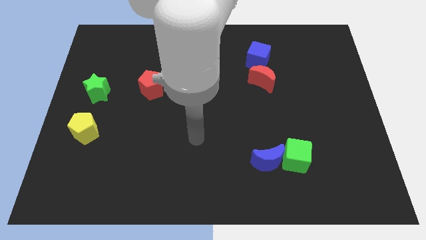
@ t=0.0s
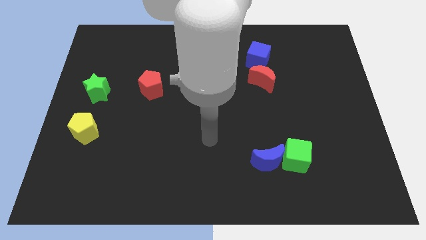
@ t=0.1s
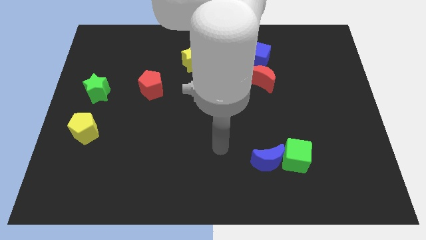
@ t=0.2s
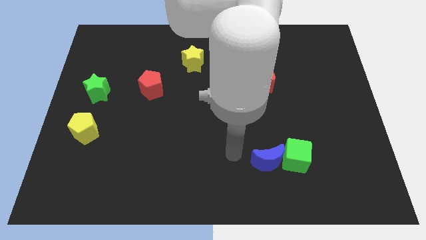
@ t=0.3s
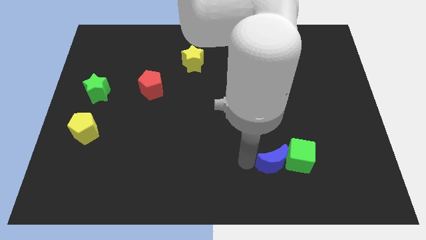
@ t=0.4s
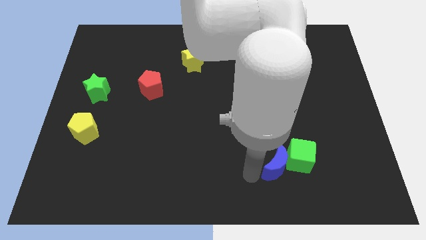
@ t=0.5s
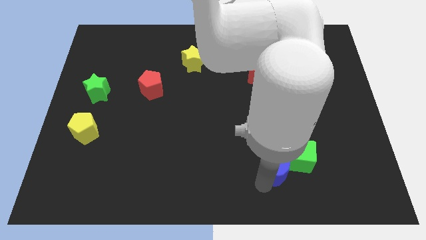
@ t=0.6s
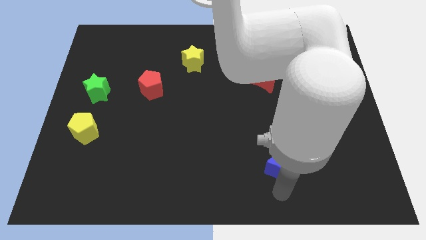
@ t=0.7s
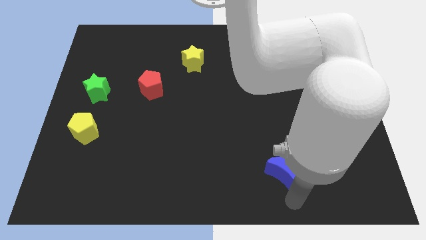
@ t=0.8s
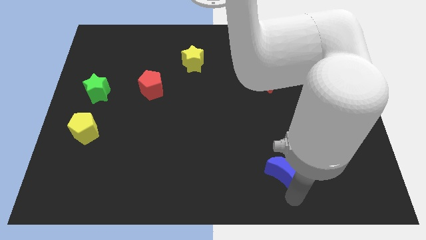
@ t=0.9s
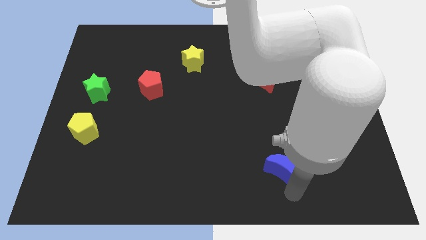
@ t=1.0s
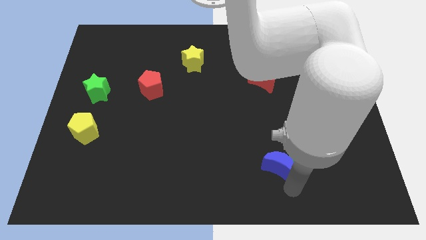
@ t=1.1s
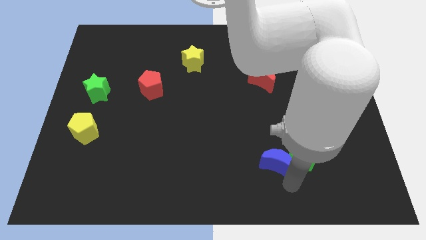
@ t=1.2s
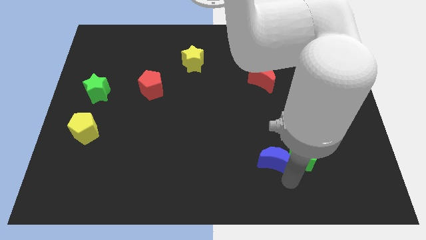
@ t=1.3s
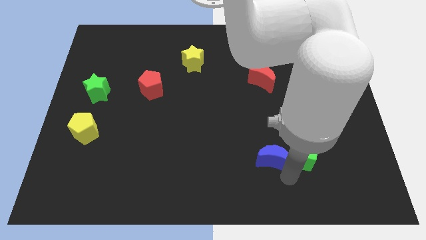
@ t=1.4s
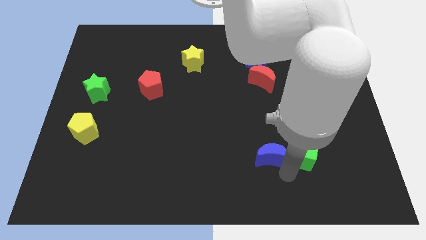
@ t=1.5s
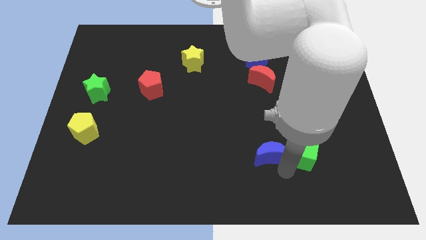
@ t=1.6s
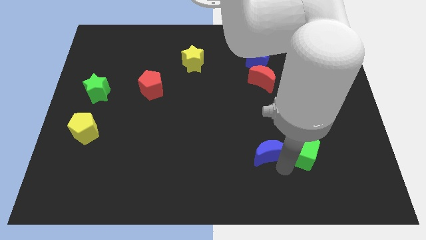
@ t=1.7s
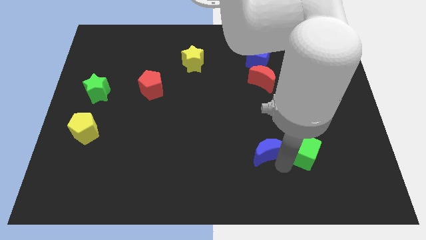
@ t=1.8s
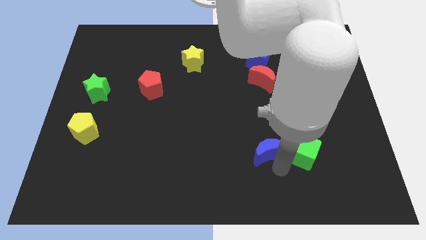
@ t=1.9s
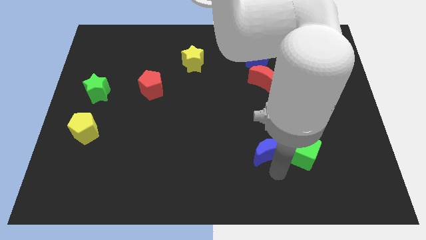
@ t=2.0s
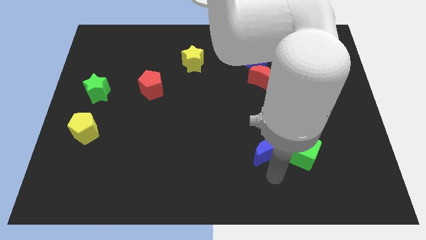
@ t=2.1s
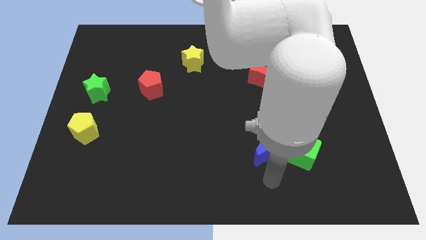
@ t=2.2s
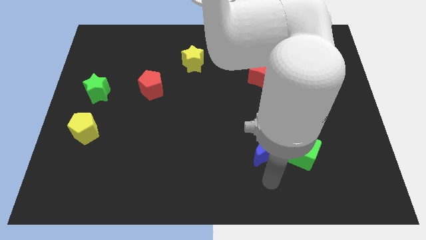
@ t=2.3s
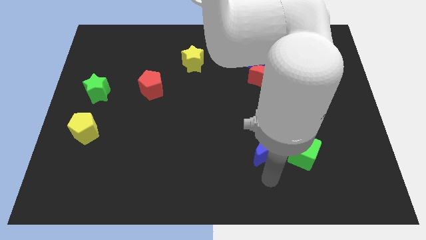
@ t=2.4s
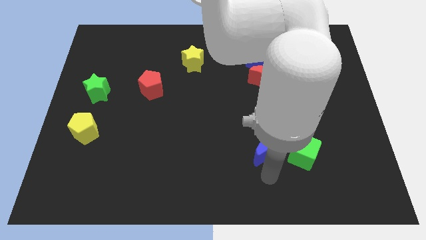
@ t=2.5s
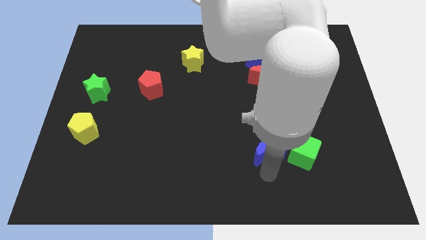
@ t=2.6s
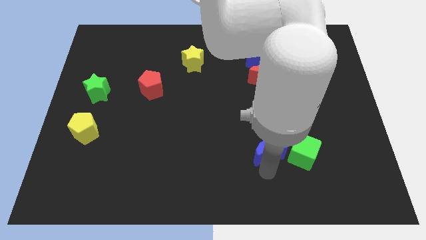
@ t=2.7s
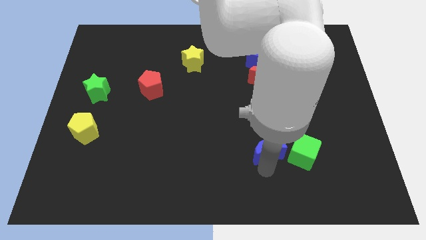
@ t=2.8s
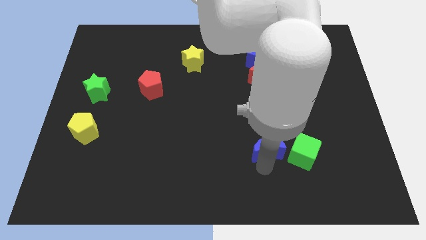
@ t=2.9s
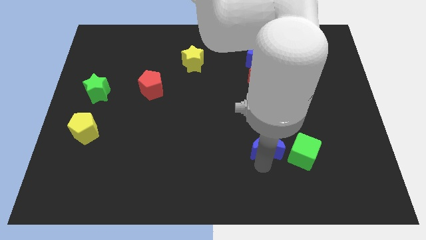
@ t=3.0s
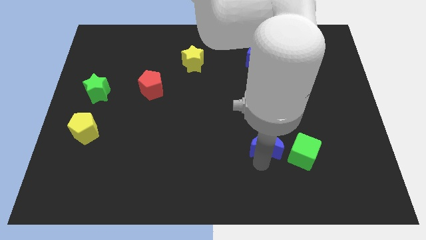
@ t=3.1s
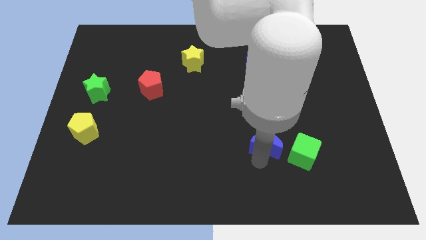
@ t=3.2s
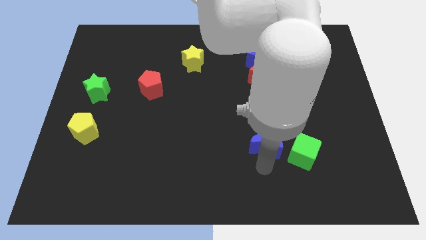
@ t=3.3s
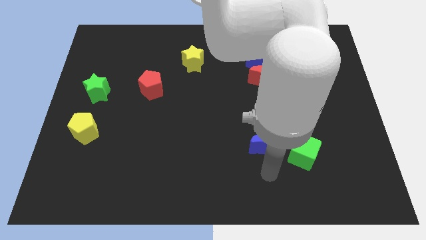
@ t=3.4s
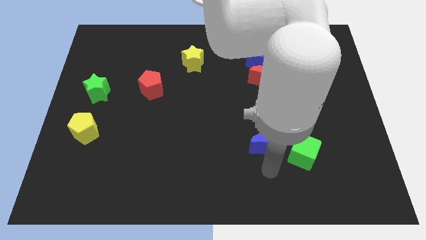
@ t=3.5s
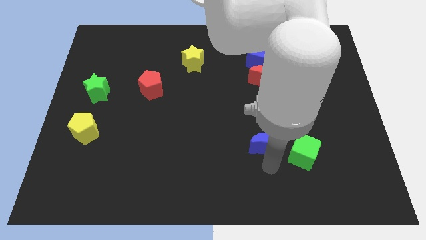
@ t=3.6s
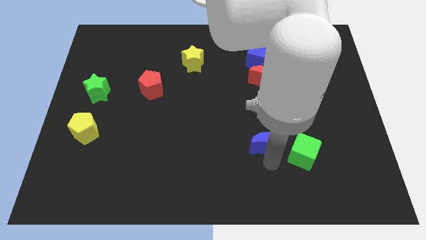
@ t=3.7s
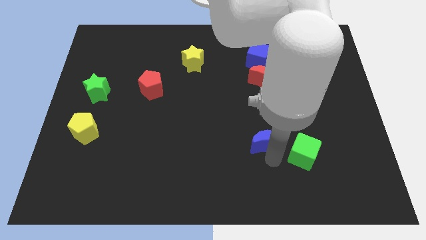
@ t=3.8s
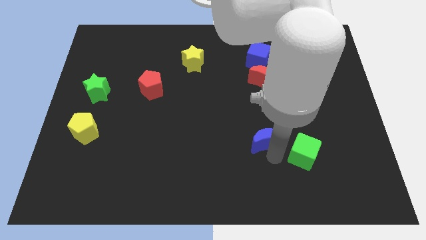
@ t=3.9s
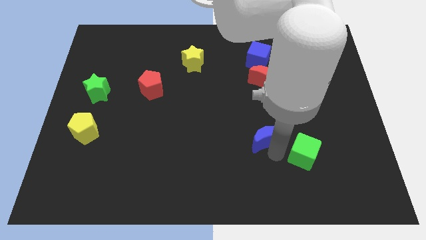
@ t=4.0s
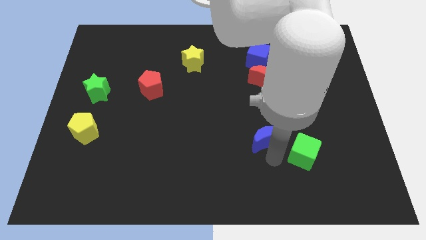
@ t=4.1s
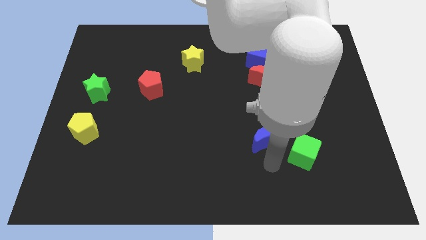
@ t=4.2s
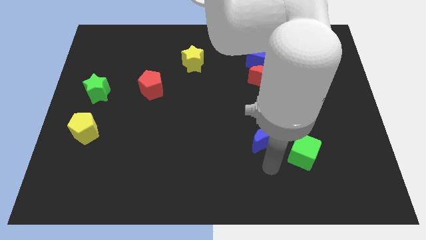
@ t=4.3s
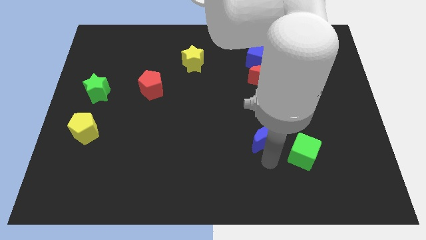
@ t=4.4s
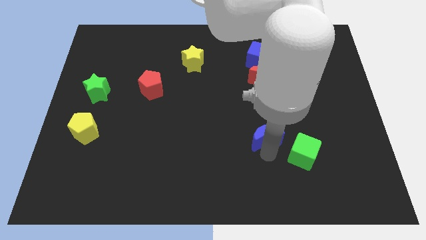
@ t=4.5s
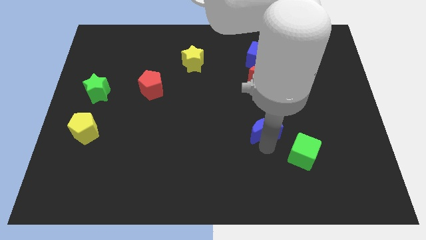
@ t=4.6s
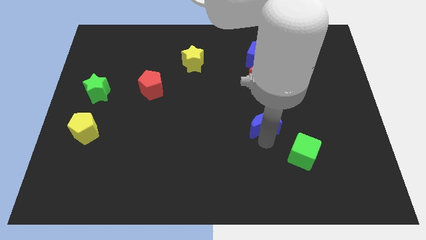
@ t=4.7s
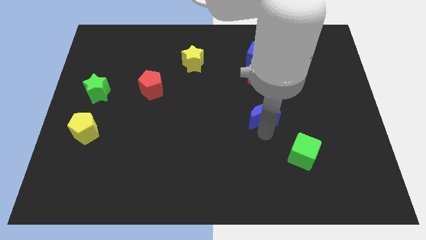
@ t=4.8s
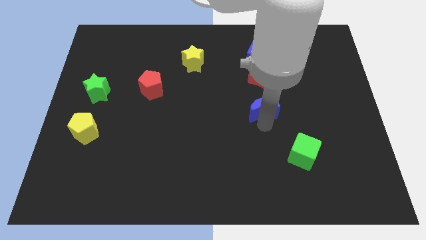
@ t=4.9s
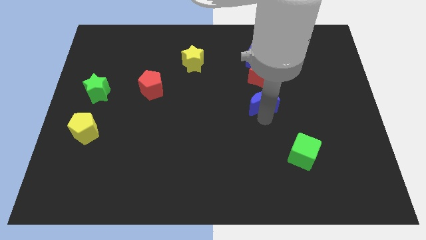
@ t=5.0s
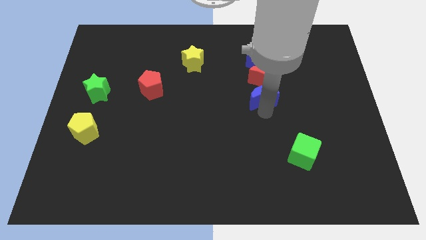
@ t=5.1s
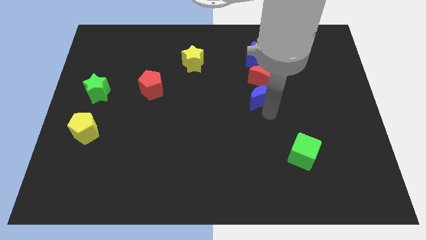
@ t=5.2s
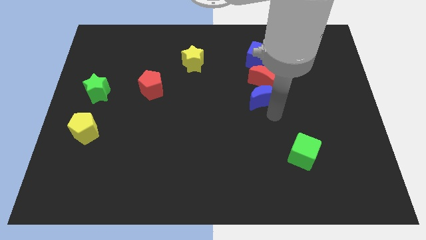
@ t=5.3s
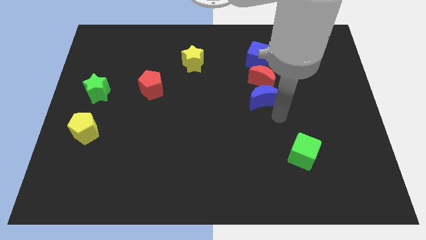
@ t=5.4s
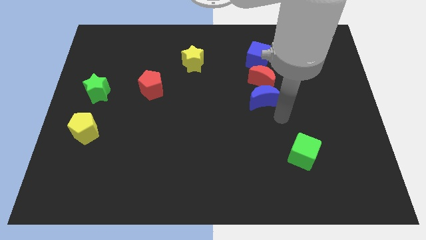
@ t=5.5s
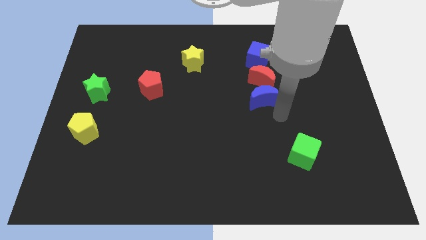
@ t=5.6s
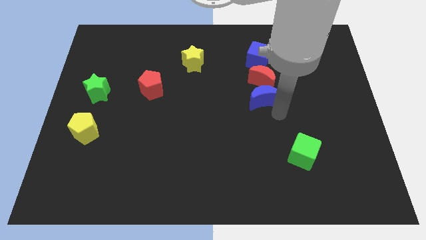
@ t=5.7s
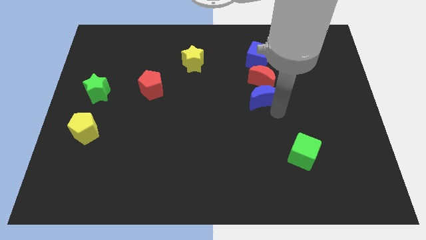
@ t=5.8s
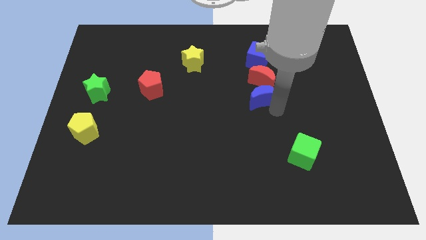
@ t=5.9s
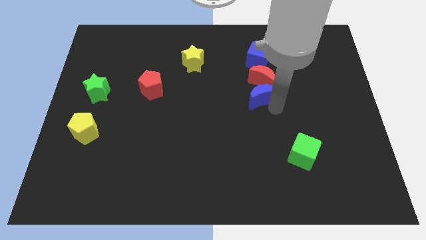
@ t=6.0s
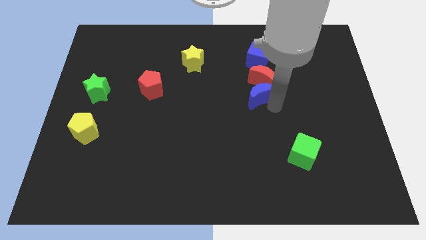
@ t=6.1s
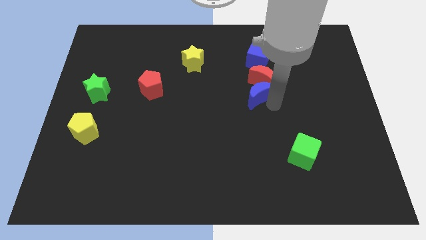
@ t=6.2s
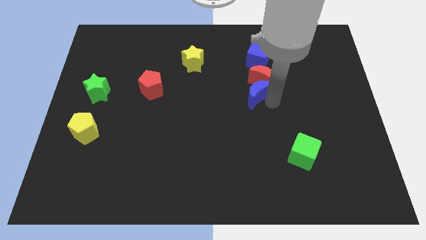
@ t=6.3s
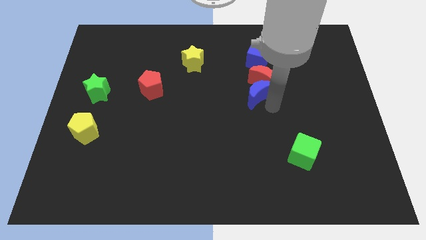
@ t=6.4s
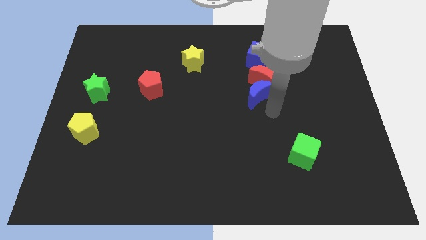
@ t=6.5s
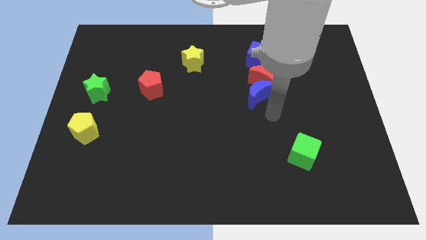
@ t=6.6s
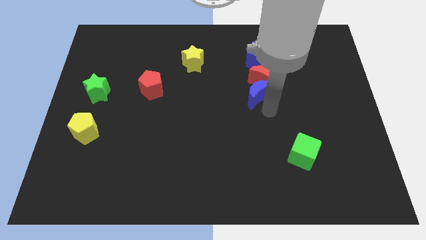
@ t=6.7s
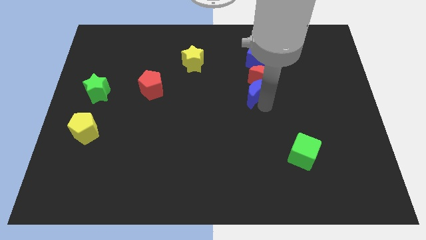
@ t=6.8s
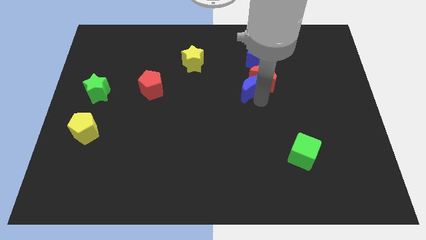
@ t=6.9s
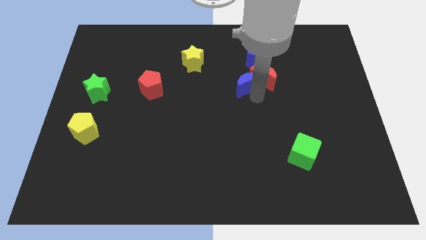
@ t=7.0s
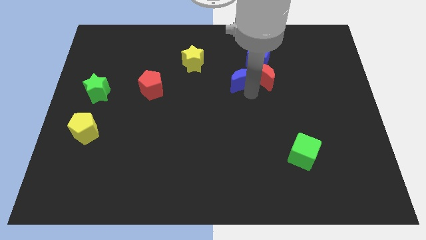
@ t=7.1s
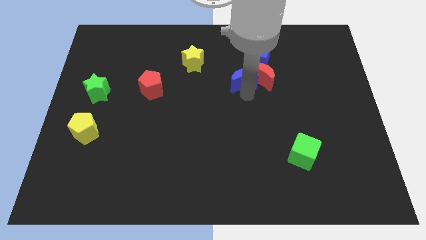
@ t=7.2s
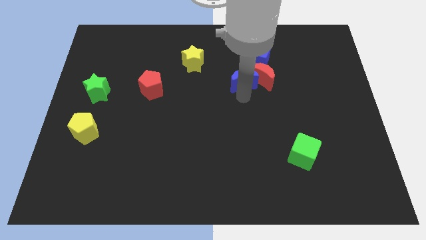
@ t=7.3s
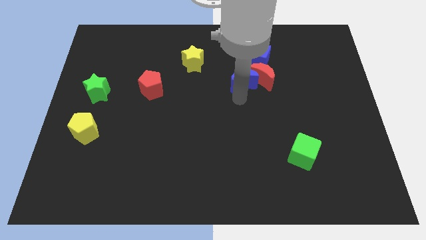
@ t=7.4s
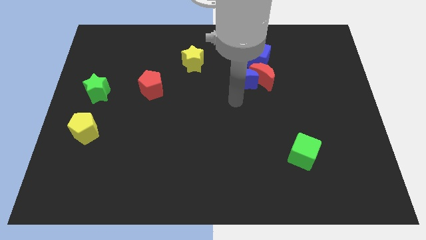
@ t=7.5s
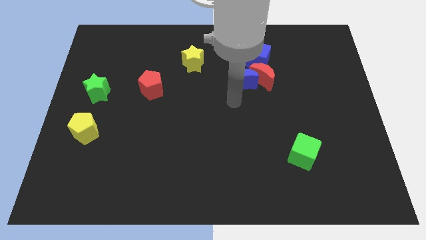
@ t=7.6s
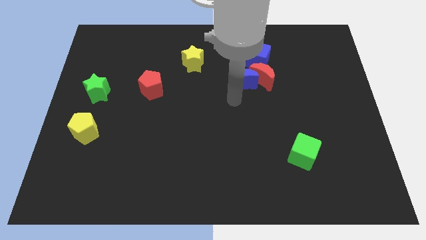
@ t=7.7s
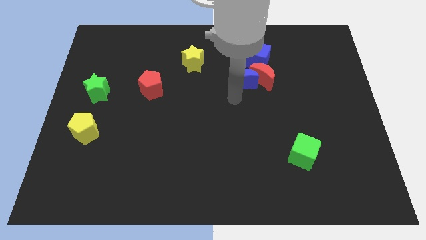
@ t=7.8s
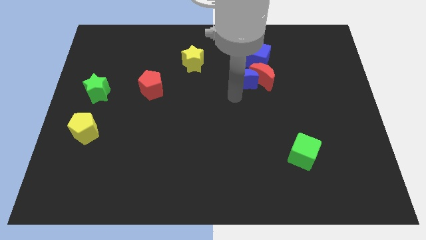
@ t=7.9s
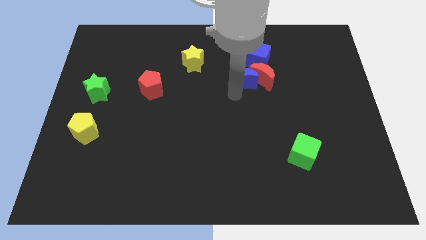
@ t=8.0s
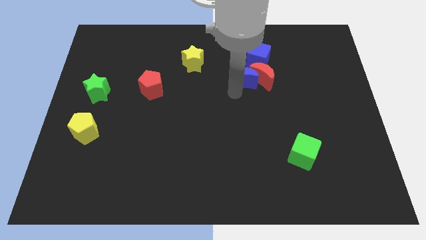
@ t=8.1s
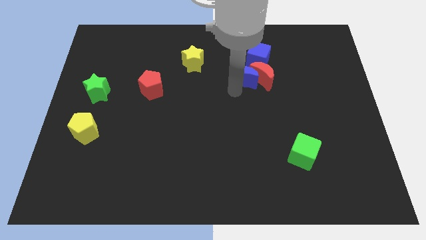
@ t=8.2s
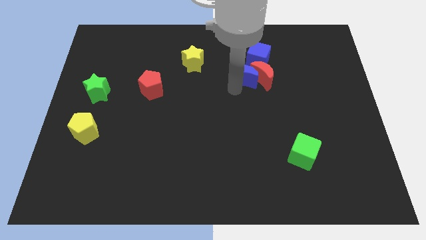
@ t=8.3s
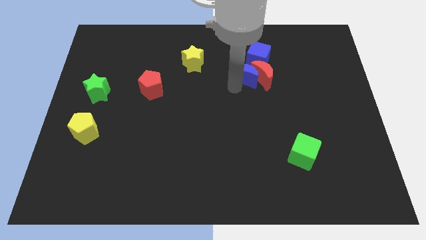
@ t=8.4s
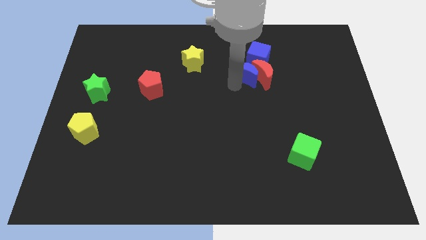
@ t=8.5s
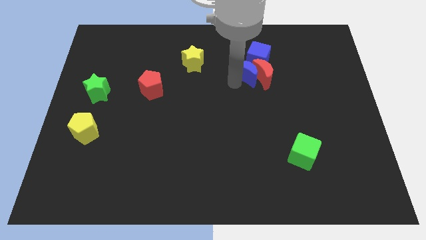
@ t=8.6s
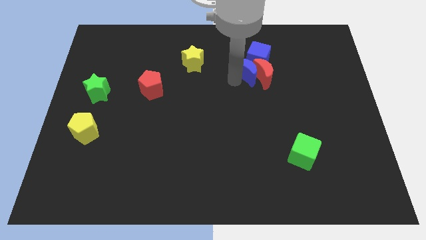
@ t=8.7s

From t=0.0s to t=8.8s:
move the blue moon next to the blue cube
